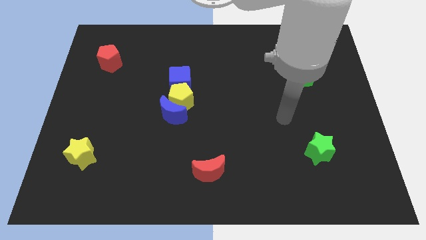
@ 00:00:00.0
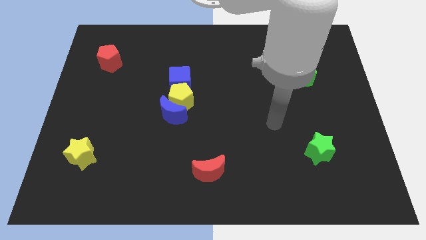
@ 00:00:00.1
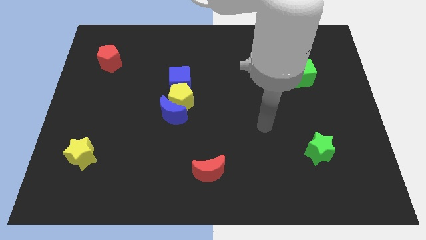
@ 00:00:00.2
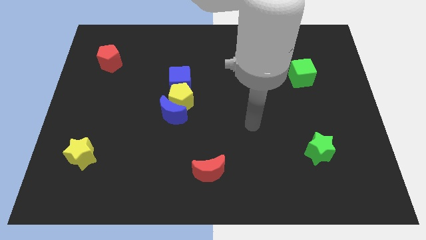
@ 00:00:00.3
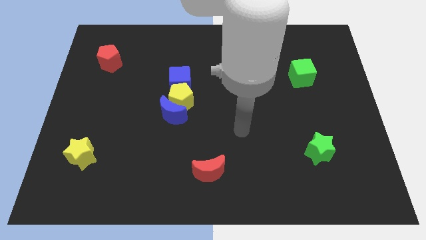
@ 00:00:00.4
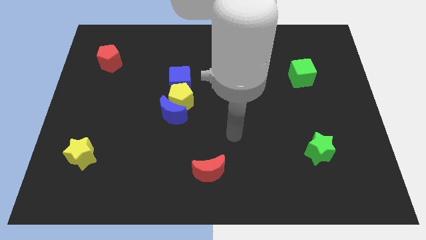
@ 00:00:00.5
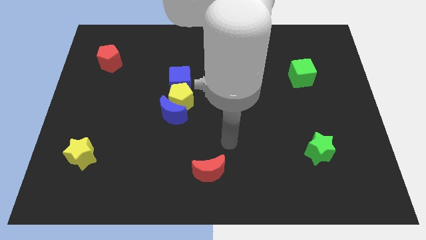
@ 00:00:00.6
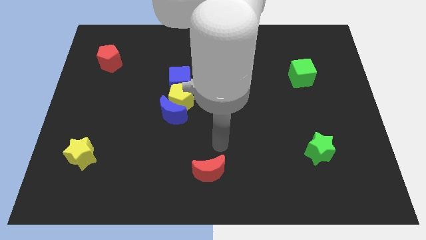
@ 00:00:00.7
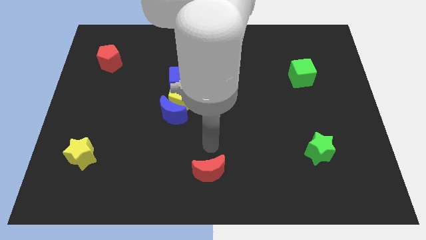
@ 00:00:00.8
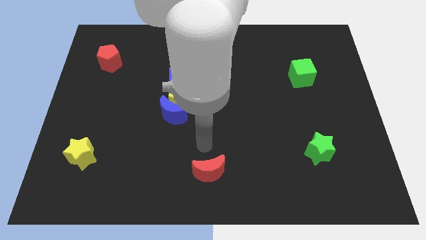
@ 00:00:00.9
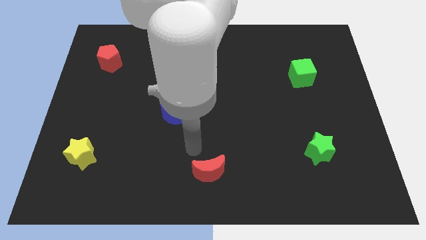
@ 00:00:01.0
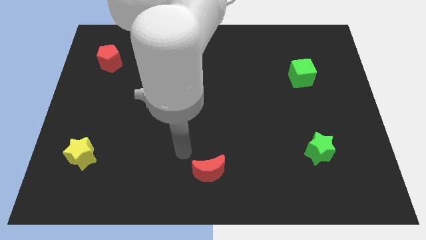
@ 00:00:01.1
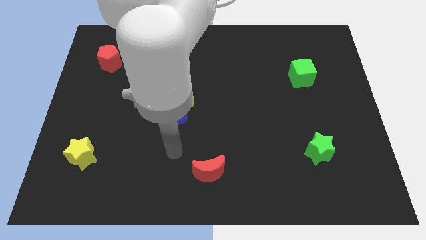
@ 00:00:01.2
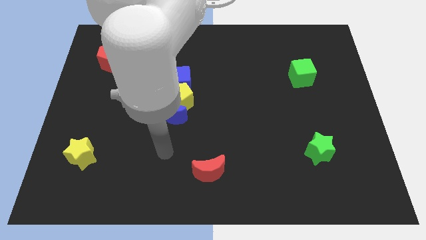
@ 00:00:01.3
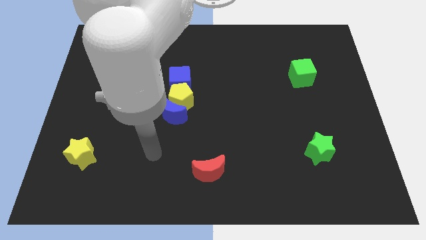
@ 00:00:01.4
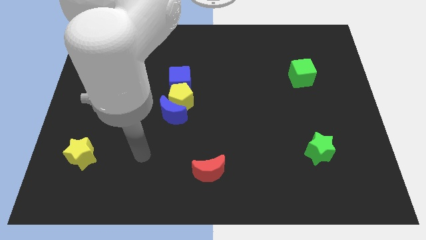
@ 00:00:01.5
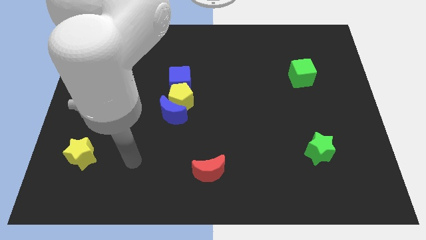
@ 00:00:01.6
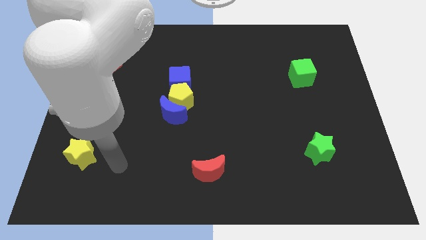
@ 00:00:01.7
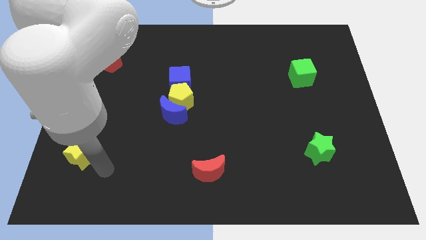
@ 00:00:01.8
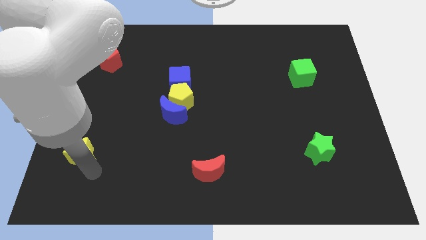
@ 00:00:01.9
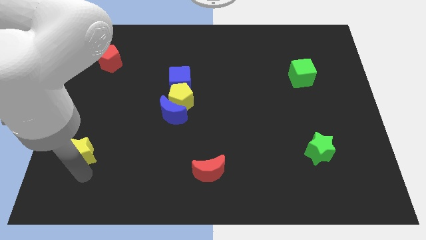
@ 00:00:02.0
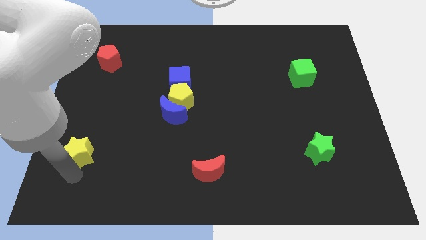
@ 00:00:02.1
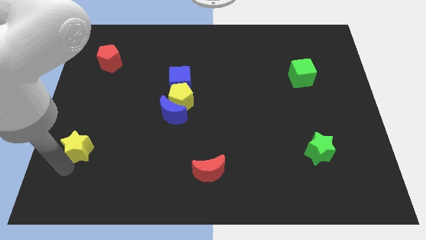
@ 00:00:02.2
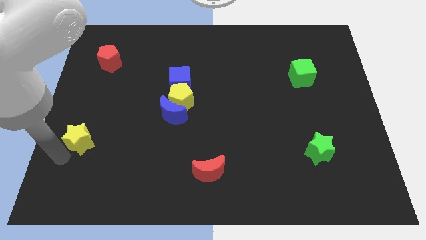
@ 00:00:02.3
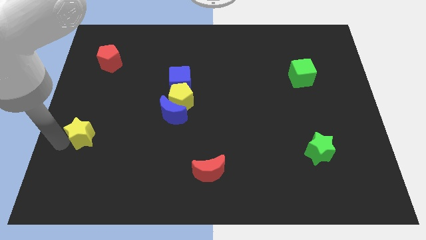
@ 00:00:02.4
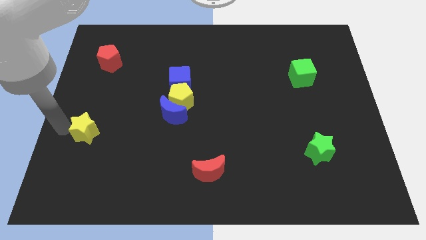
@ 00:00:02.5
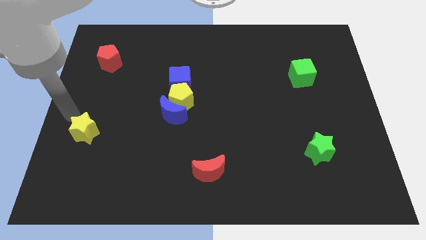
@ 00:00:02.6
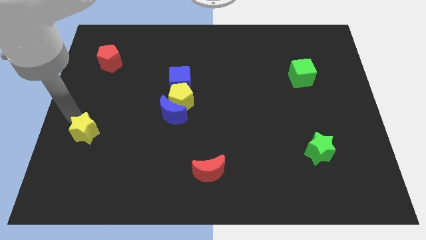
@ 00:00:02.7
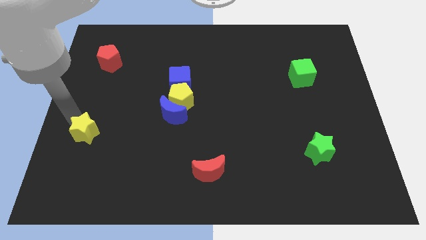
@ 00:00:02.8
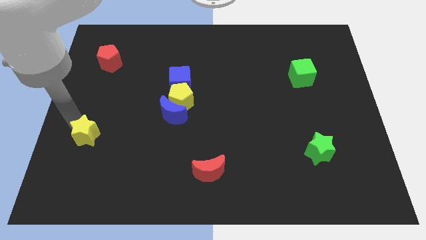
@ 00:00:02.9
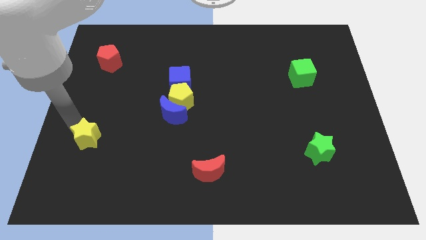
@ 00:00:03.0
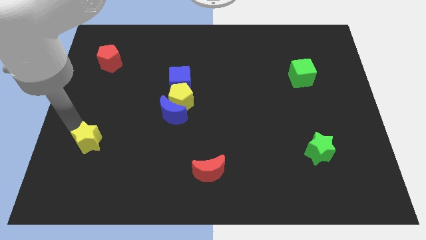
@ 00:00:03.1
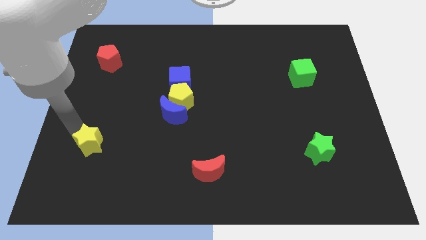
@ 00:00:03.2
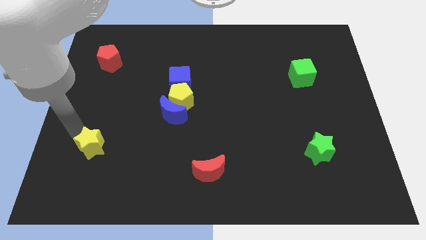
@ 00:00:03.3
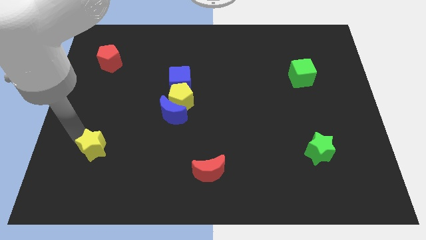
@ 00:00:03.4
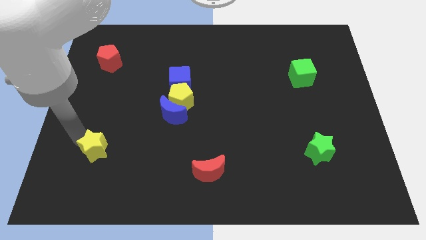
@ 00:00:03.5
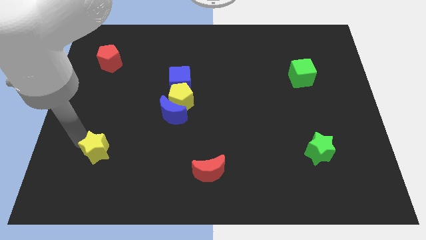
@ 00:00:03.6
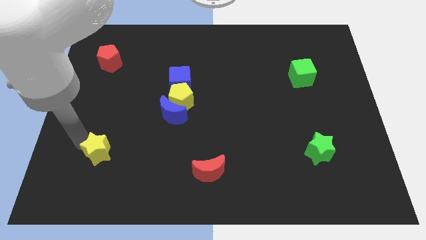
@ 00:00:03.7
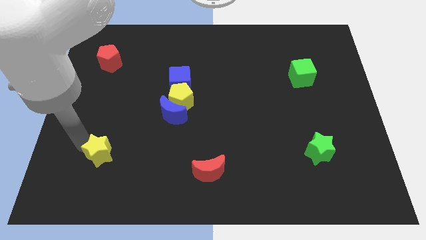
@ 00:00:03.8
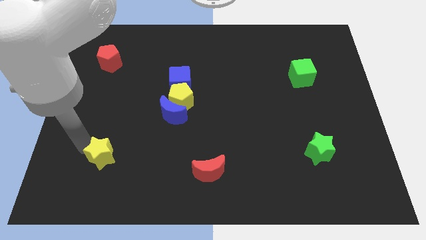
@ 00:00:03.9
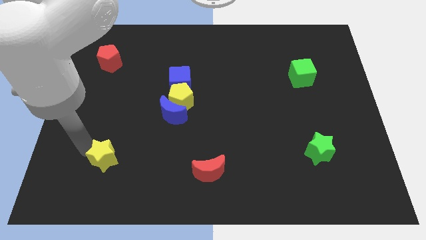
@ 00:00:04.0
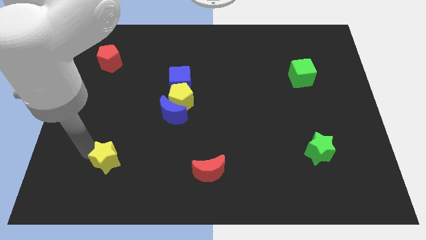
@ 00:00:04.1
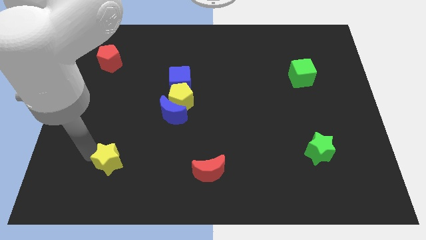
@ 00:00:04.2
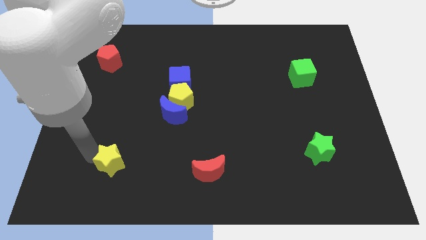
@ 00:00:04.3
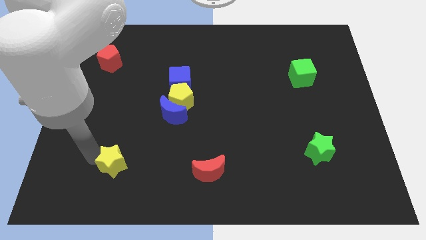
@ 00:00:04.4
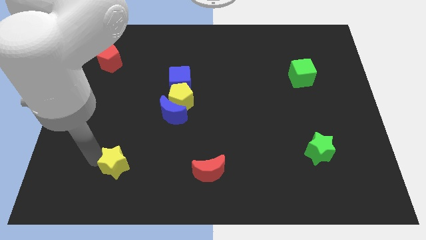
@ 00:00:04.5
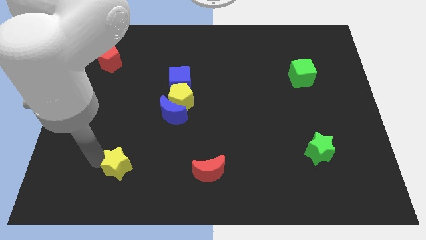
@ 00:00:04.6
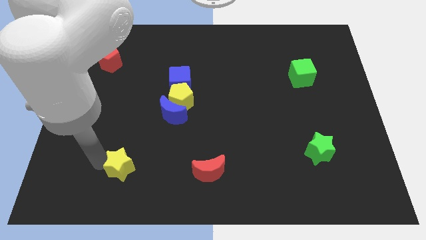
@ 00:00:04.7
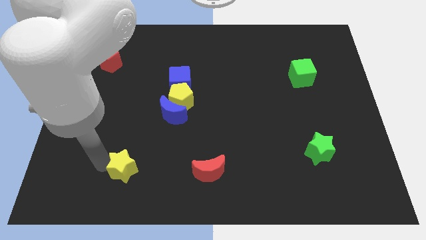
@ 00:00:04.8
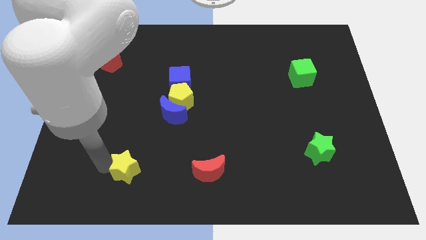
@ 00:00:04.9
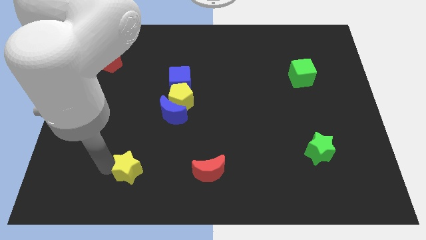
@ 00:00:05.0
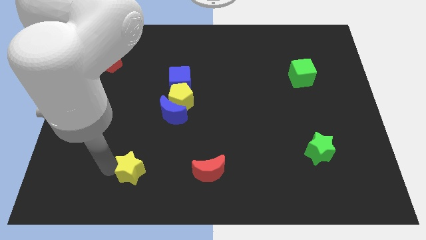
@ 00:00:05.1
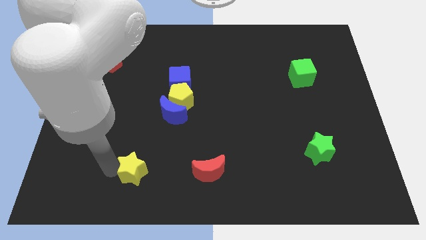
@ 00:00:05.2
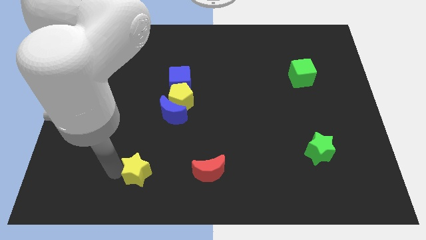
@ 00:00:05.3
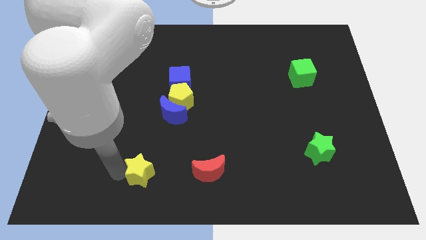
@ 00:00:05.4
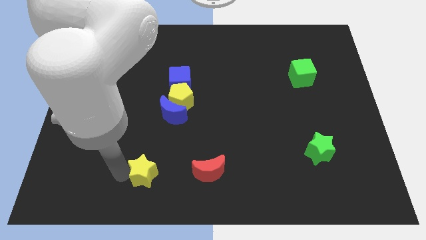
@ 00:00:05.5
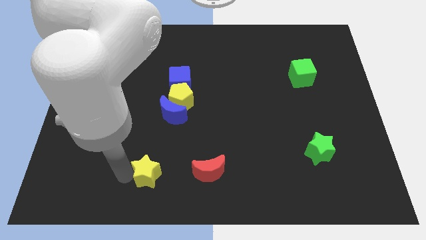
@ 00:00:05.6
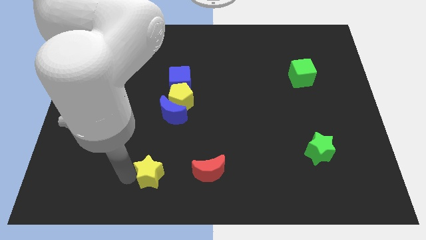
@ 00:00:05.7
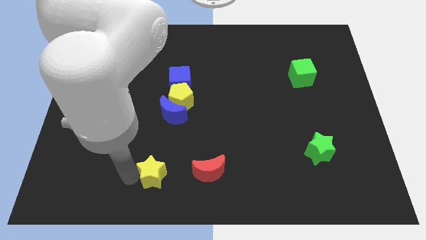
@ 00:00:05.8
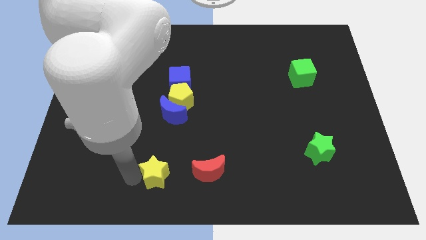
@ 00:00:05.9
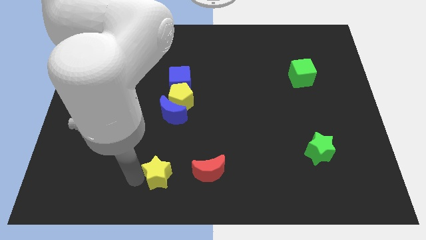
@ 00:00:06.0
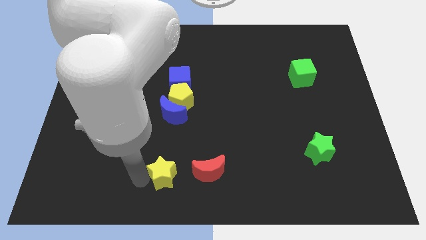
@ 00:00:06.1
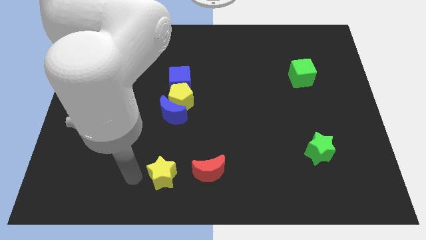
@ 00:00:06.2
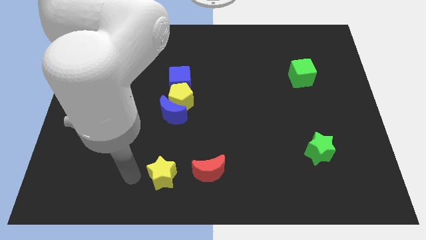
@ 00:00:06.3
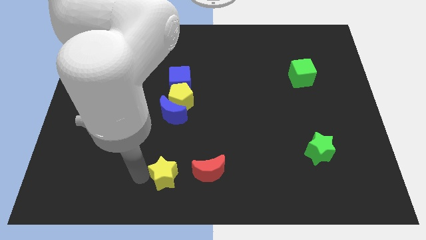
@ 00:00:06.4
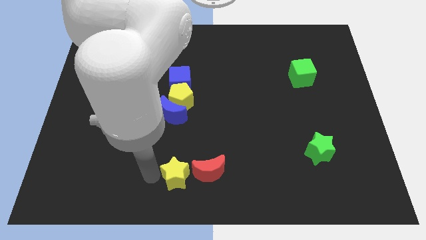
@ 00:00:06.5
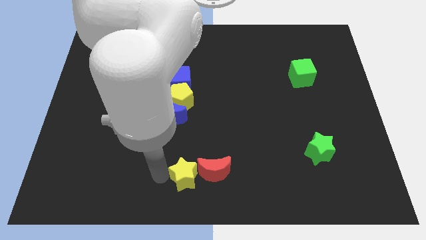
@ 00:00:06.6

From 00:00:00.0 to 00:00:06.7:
push the yellow star next to the red moon

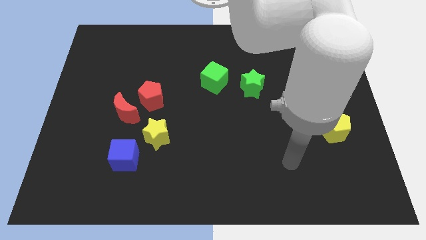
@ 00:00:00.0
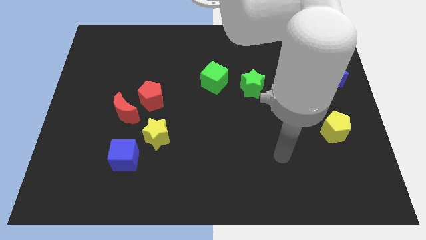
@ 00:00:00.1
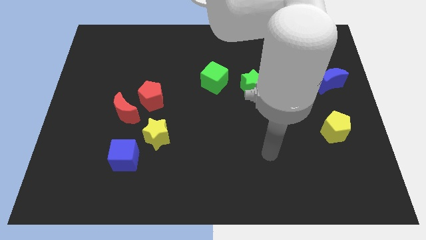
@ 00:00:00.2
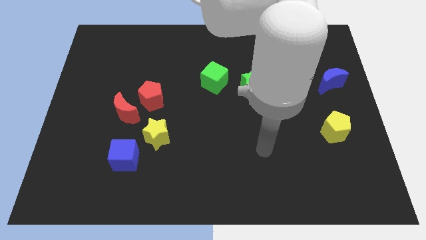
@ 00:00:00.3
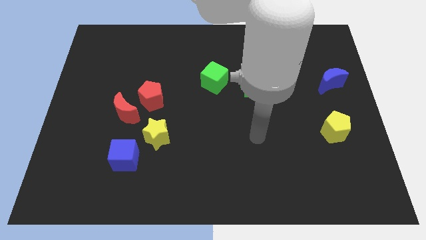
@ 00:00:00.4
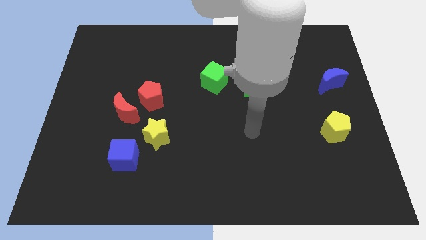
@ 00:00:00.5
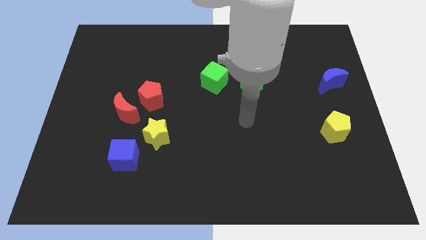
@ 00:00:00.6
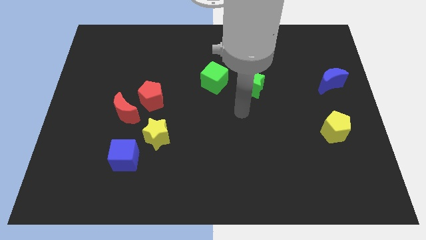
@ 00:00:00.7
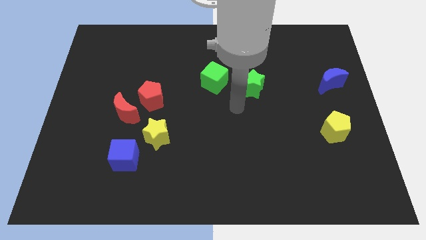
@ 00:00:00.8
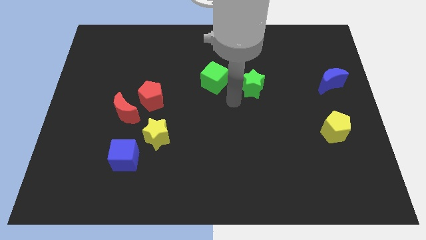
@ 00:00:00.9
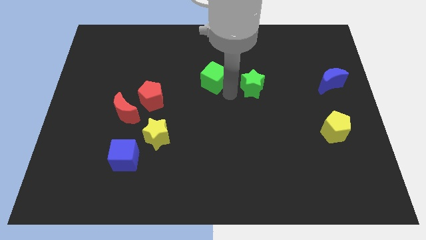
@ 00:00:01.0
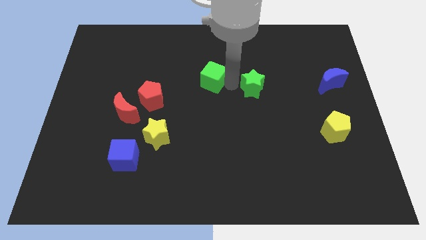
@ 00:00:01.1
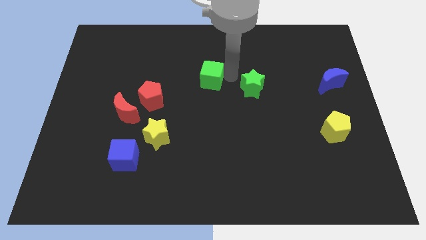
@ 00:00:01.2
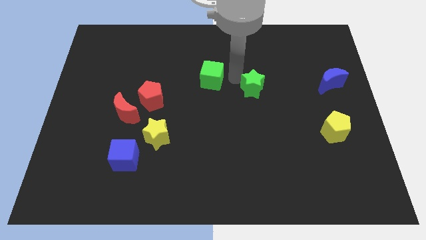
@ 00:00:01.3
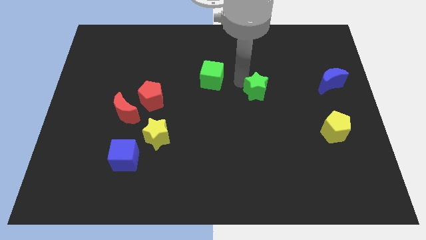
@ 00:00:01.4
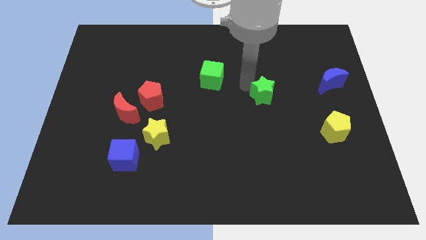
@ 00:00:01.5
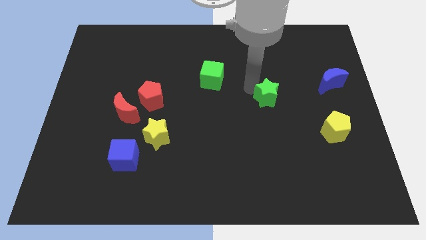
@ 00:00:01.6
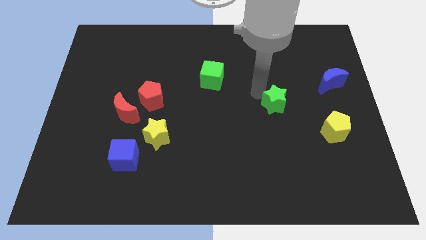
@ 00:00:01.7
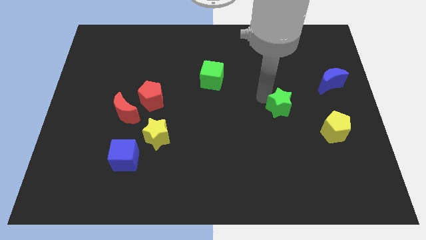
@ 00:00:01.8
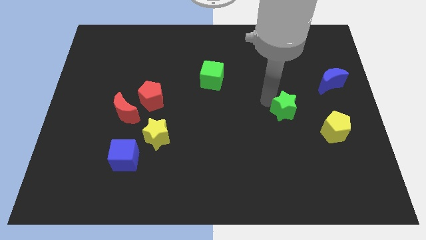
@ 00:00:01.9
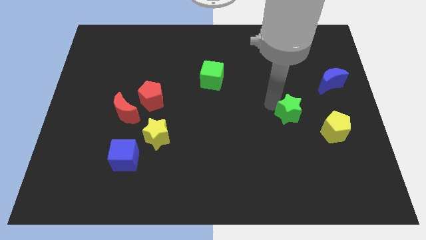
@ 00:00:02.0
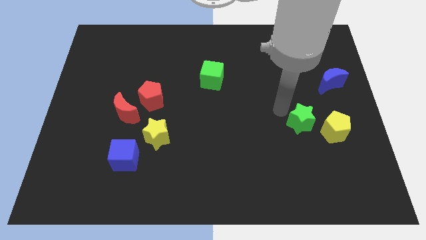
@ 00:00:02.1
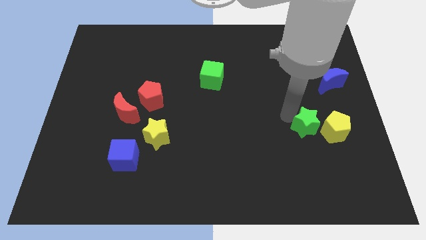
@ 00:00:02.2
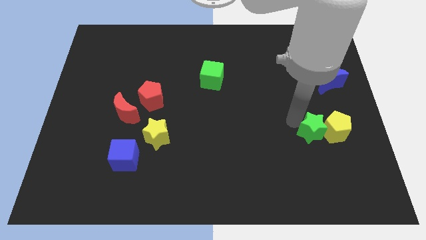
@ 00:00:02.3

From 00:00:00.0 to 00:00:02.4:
move the green star next to the yellow pentagon
